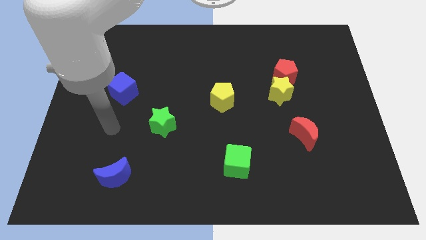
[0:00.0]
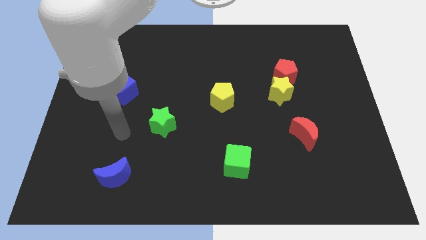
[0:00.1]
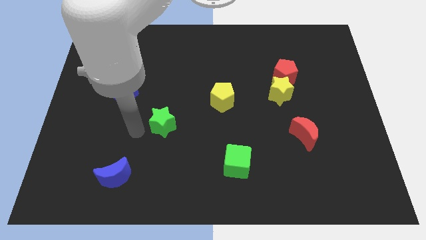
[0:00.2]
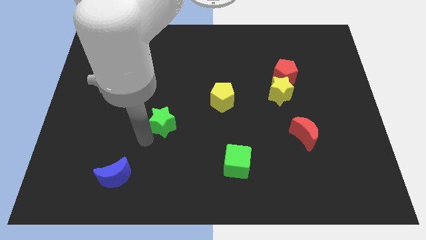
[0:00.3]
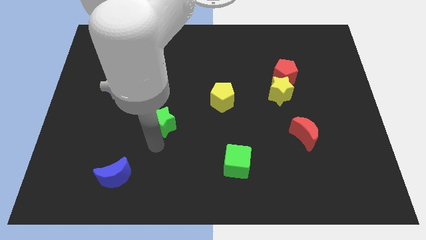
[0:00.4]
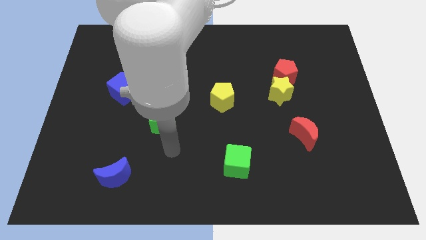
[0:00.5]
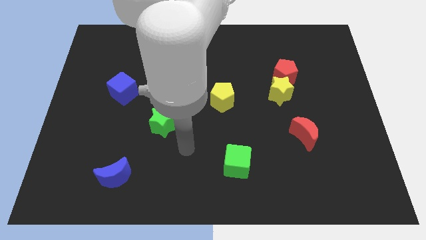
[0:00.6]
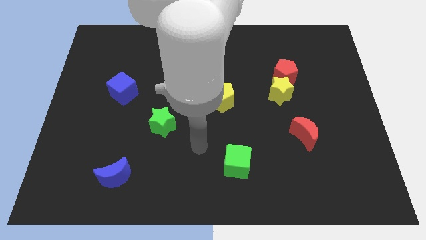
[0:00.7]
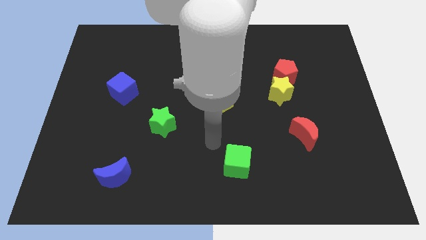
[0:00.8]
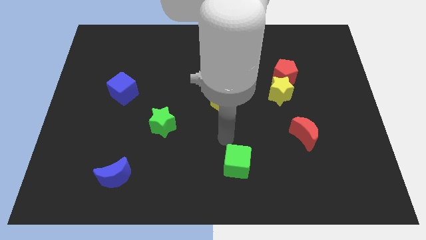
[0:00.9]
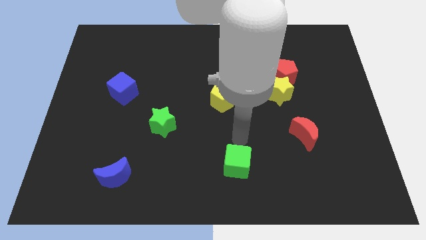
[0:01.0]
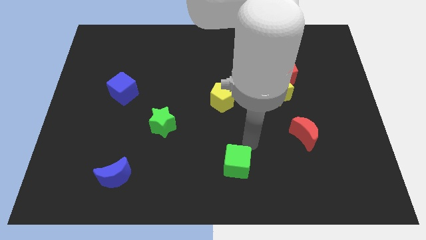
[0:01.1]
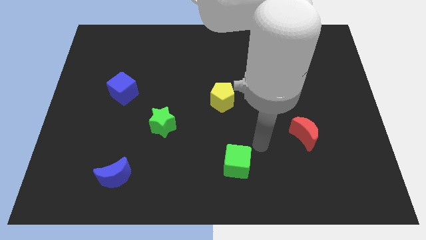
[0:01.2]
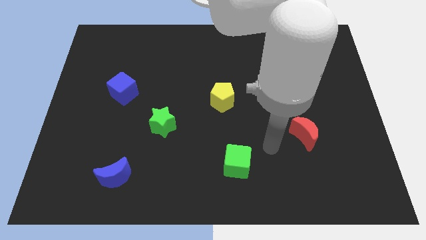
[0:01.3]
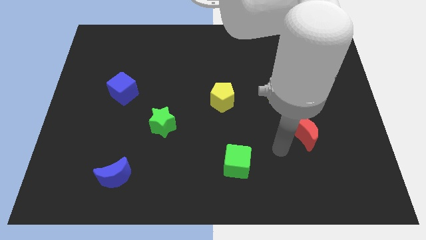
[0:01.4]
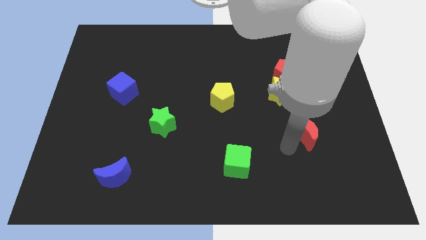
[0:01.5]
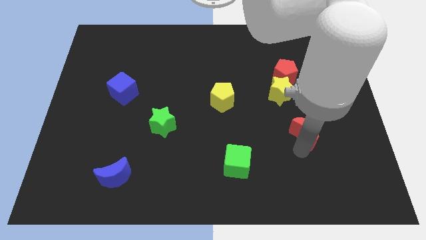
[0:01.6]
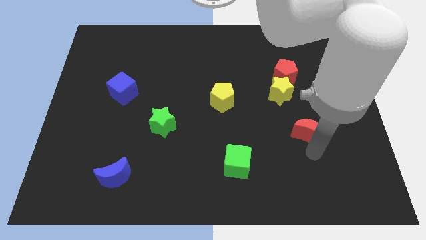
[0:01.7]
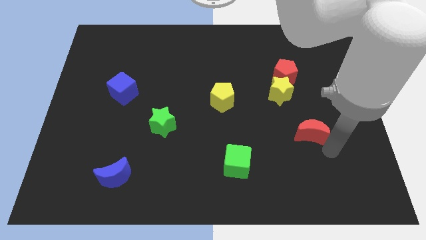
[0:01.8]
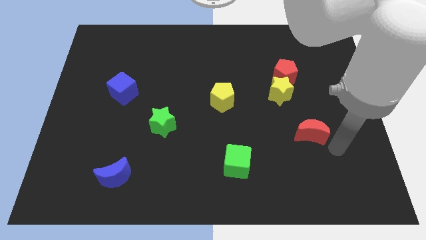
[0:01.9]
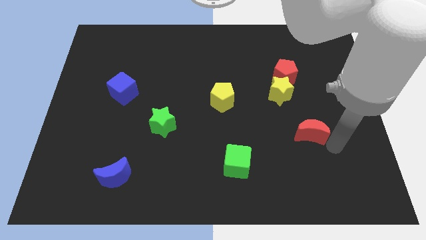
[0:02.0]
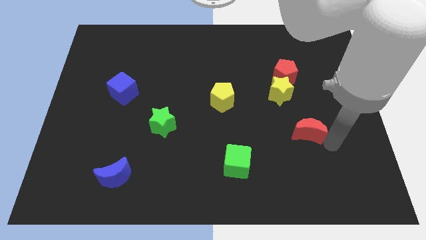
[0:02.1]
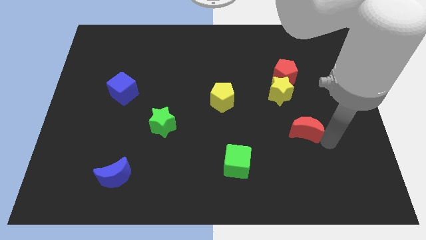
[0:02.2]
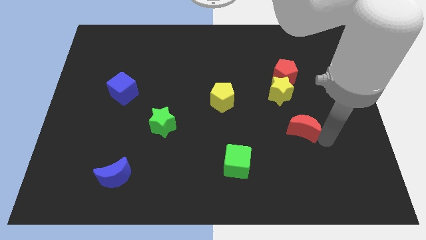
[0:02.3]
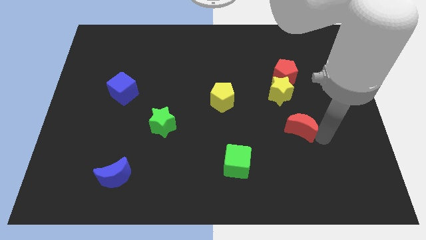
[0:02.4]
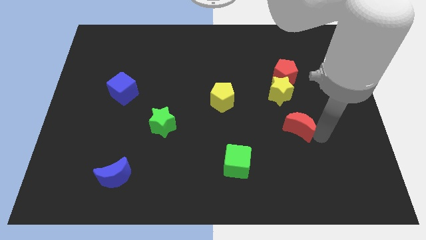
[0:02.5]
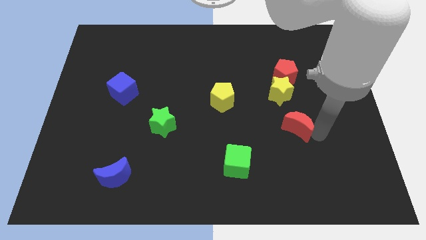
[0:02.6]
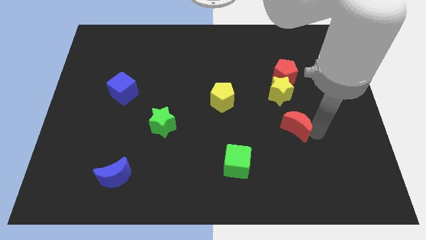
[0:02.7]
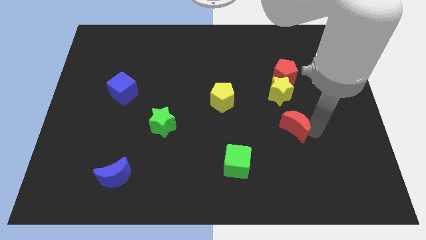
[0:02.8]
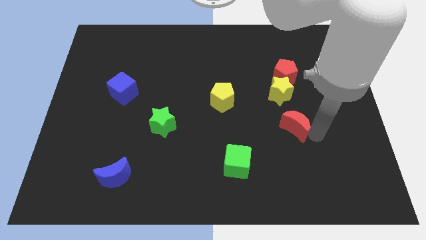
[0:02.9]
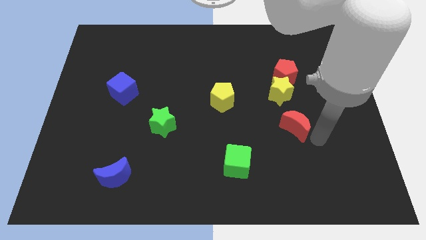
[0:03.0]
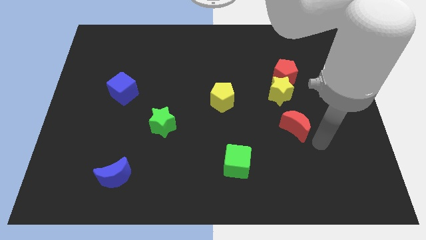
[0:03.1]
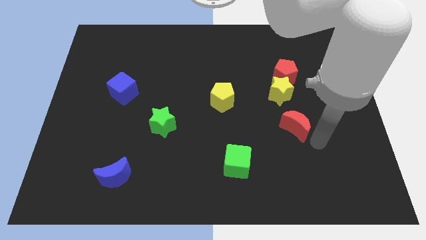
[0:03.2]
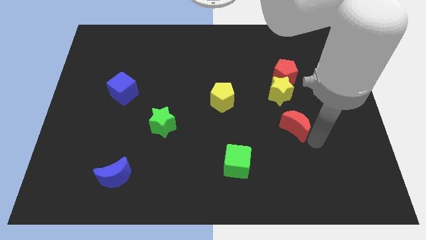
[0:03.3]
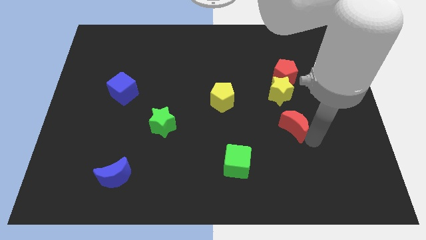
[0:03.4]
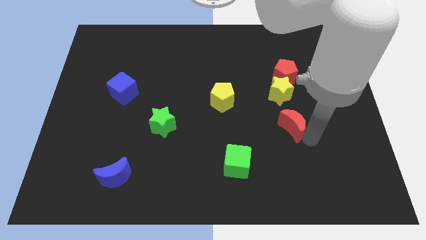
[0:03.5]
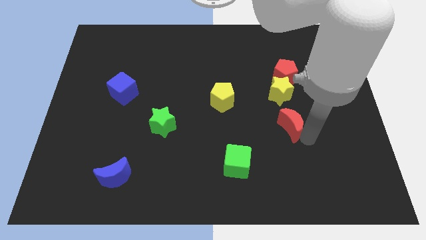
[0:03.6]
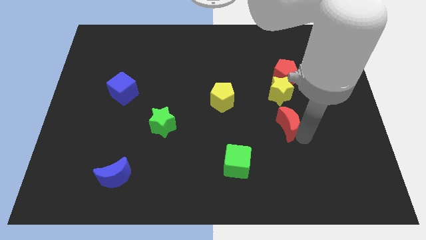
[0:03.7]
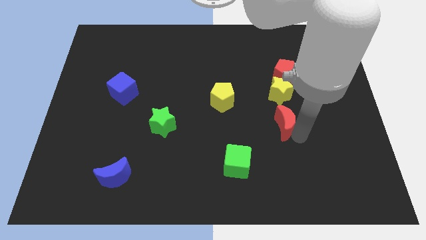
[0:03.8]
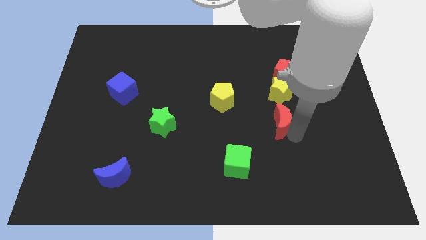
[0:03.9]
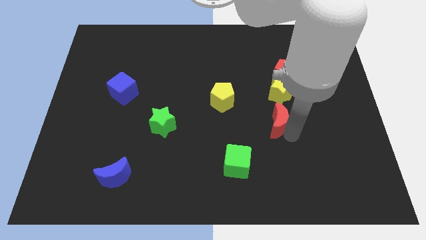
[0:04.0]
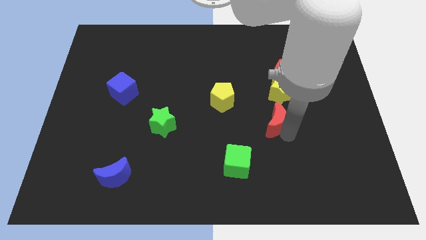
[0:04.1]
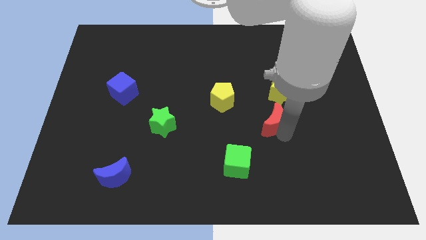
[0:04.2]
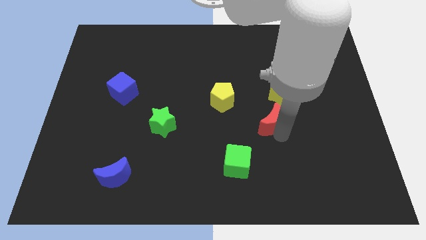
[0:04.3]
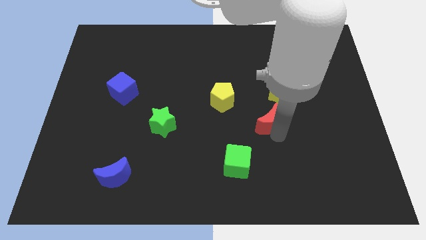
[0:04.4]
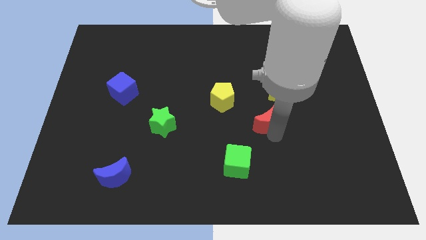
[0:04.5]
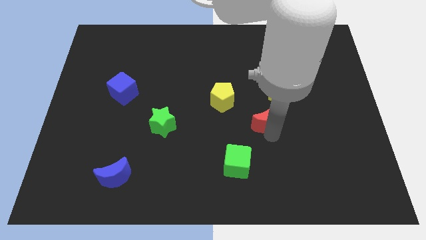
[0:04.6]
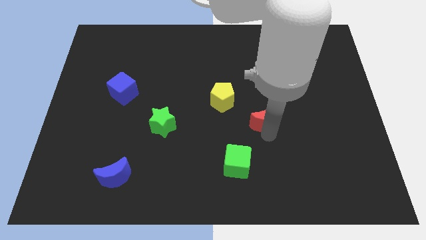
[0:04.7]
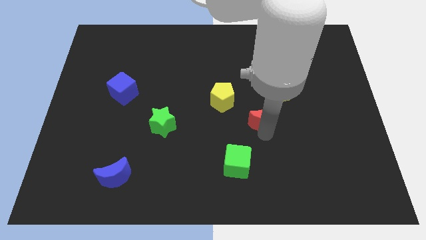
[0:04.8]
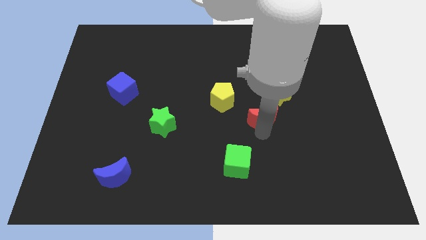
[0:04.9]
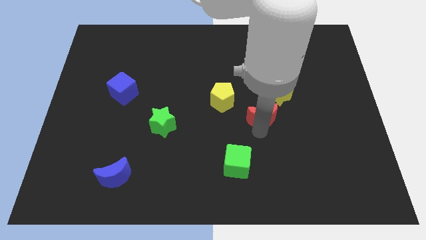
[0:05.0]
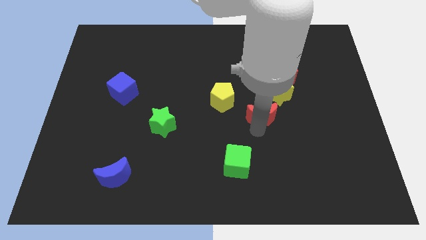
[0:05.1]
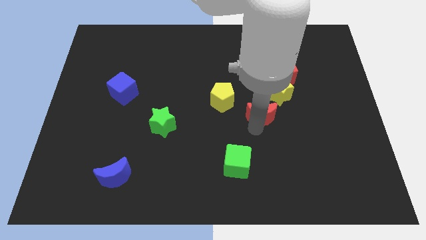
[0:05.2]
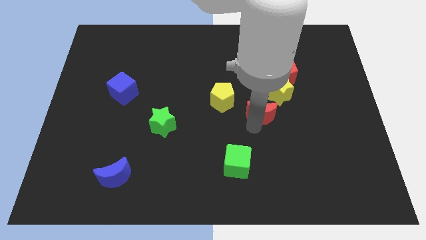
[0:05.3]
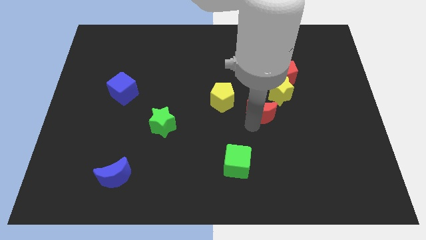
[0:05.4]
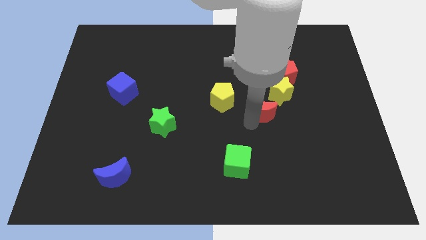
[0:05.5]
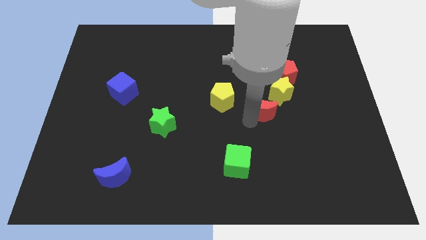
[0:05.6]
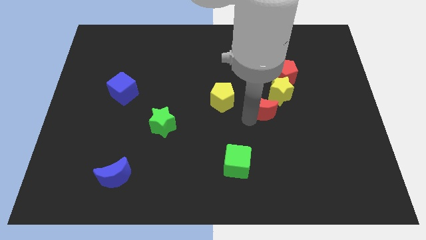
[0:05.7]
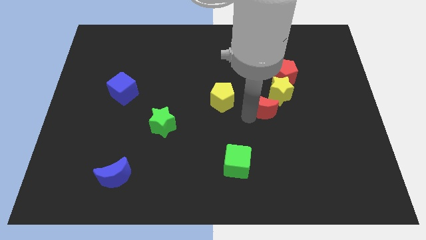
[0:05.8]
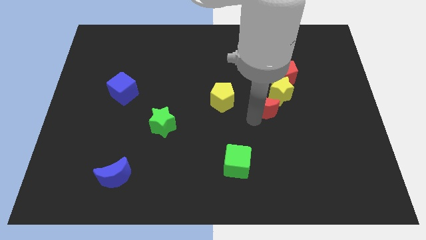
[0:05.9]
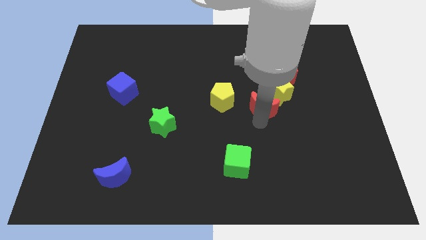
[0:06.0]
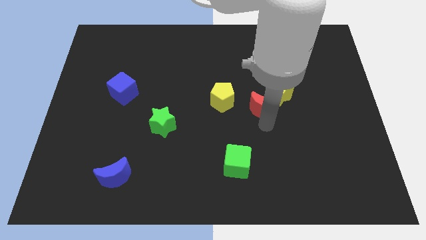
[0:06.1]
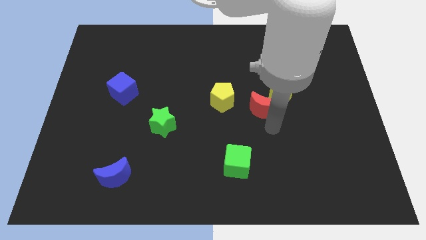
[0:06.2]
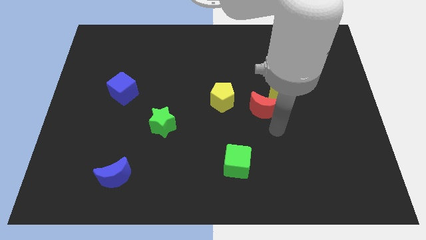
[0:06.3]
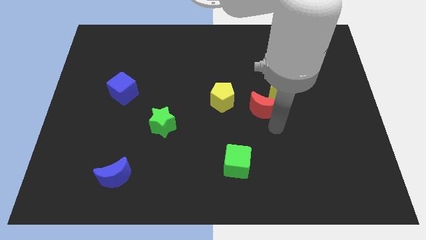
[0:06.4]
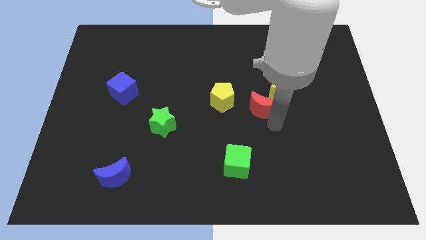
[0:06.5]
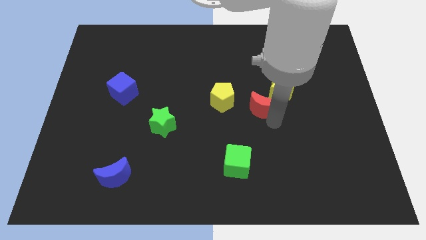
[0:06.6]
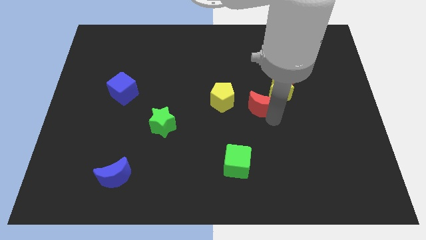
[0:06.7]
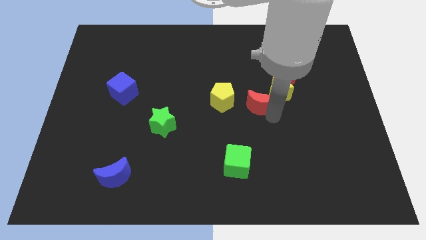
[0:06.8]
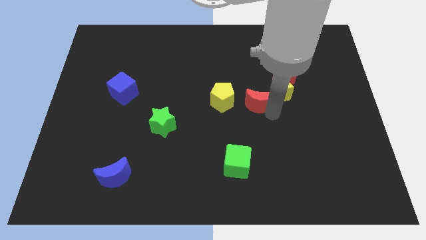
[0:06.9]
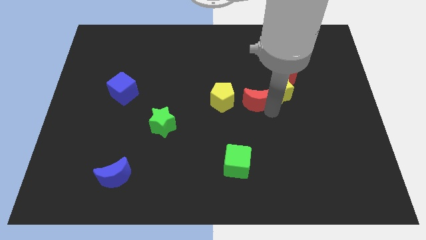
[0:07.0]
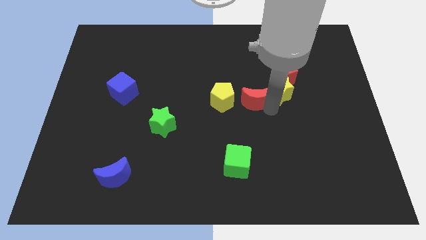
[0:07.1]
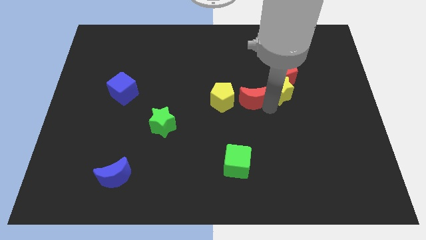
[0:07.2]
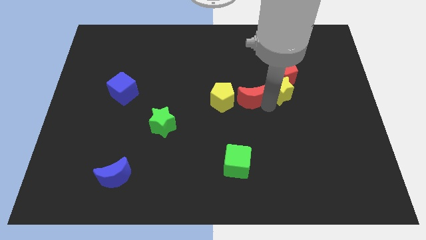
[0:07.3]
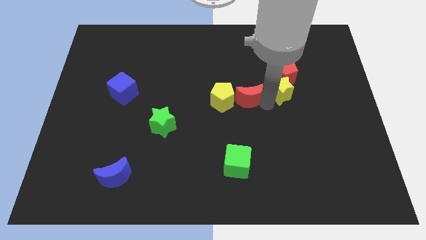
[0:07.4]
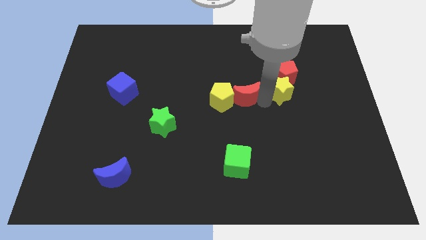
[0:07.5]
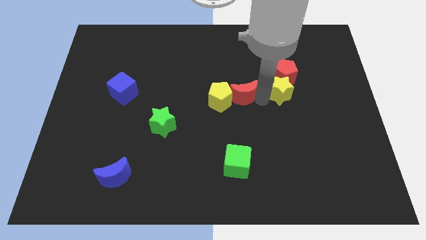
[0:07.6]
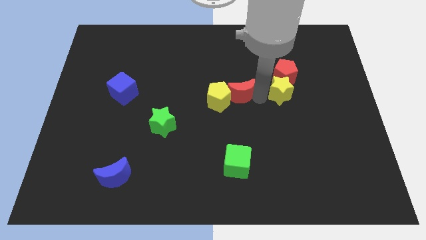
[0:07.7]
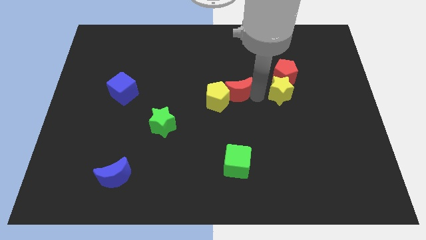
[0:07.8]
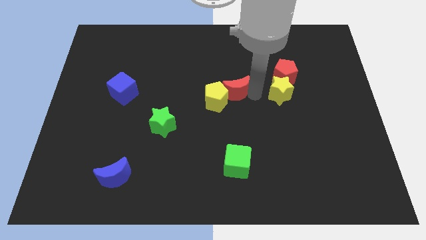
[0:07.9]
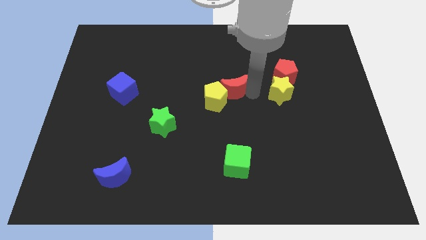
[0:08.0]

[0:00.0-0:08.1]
slide the red moon upwards and to the left

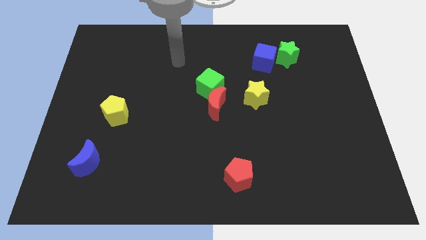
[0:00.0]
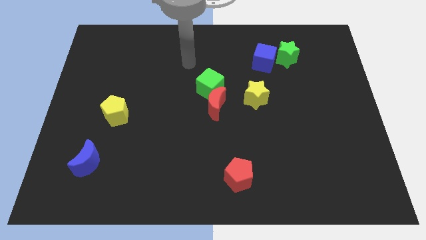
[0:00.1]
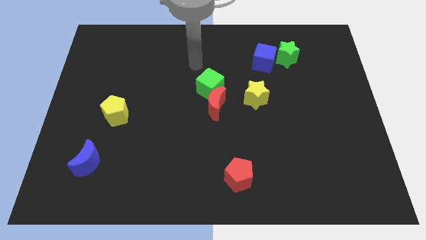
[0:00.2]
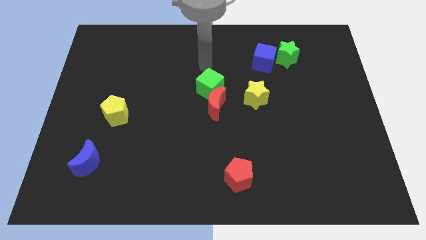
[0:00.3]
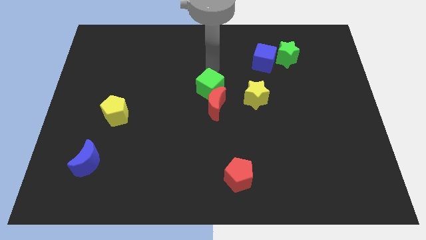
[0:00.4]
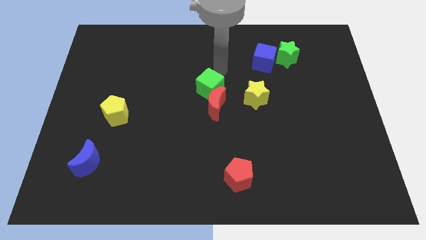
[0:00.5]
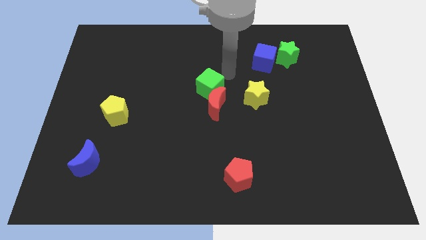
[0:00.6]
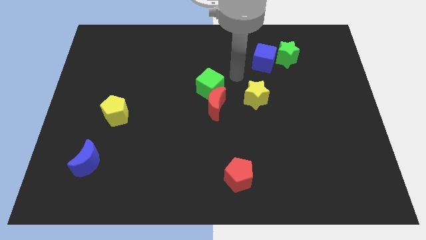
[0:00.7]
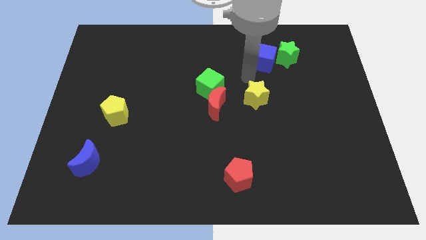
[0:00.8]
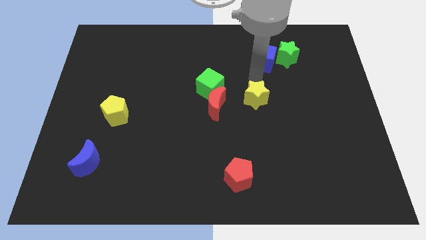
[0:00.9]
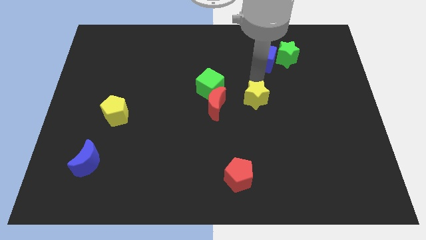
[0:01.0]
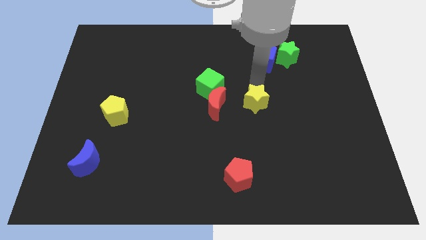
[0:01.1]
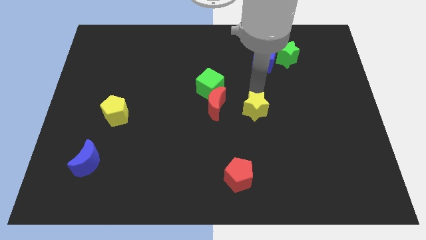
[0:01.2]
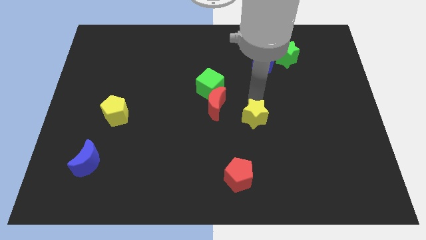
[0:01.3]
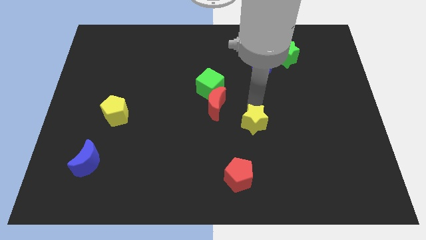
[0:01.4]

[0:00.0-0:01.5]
slightly move the yellow star down
